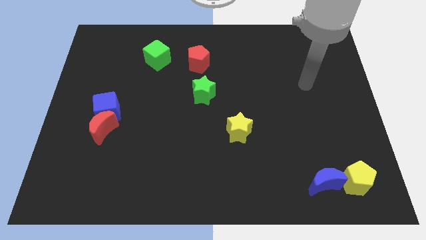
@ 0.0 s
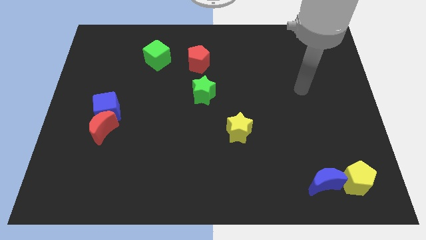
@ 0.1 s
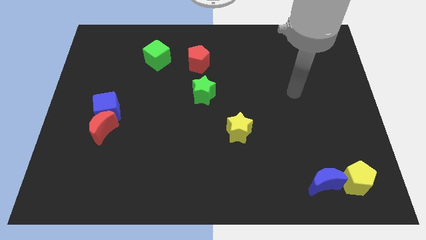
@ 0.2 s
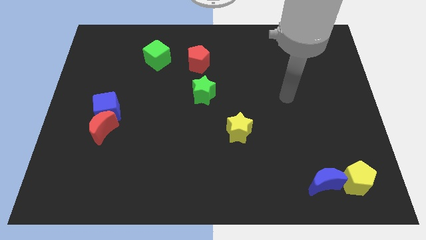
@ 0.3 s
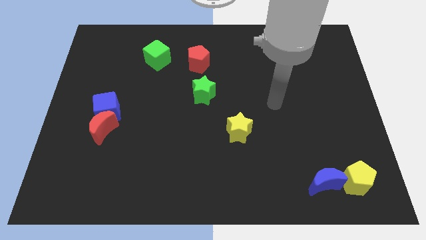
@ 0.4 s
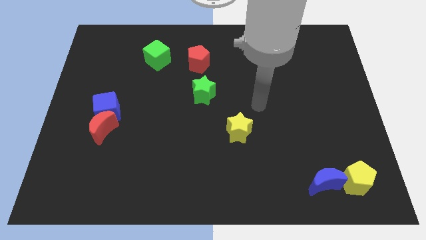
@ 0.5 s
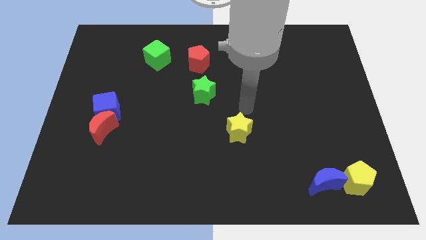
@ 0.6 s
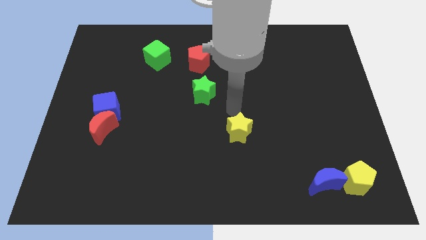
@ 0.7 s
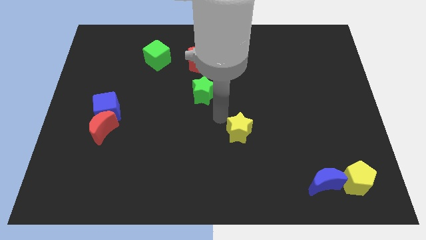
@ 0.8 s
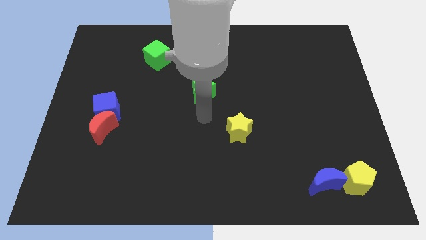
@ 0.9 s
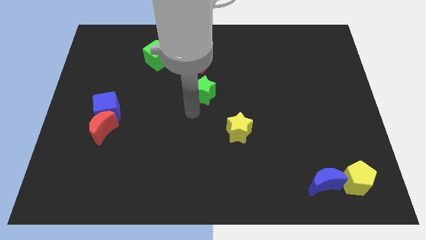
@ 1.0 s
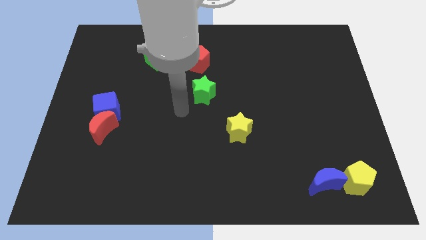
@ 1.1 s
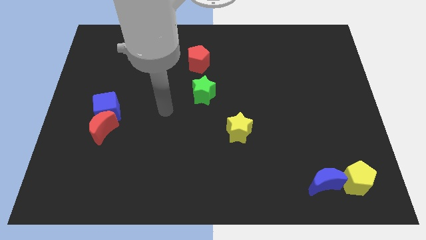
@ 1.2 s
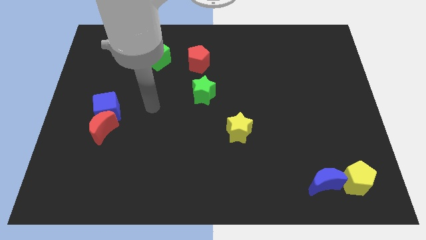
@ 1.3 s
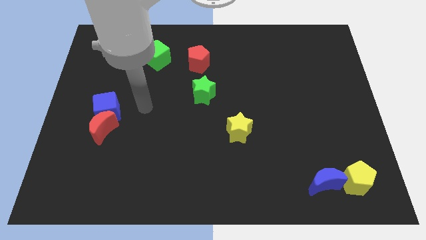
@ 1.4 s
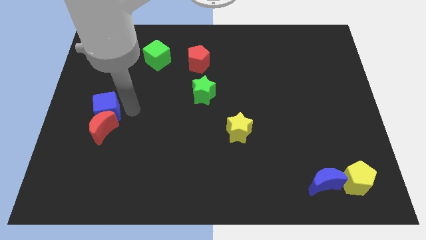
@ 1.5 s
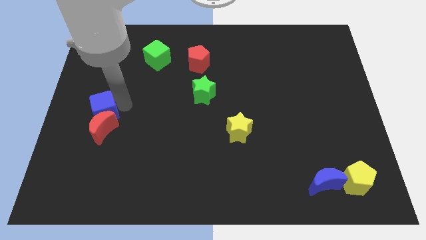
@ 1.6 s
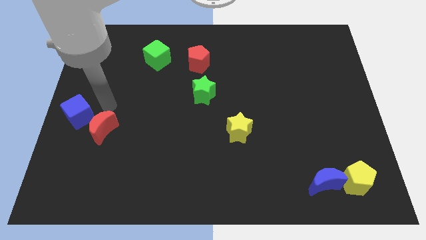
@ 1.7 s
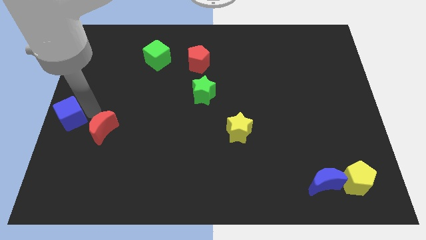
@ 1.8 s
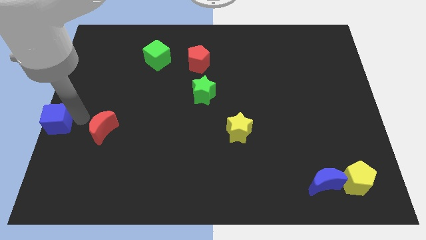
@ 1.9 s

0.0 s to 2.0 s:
move the red moon away from the blue cube

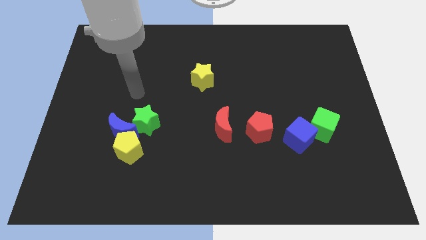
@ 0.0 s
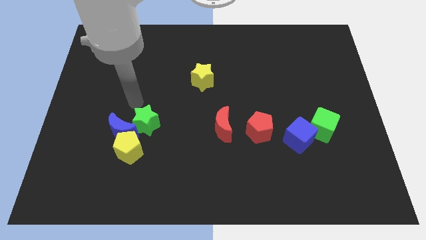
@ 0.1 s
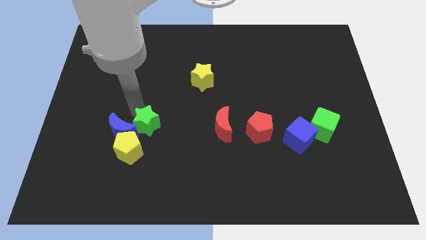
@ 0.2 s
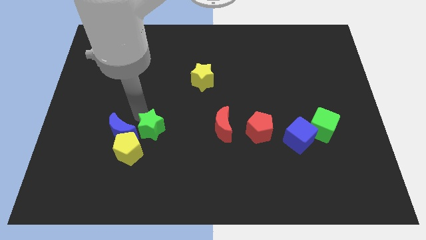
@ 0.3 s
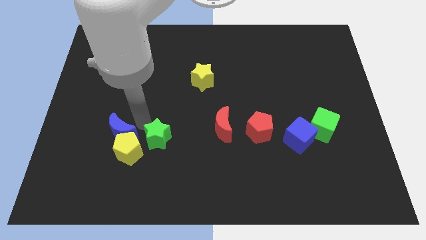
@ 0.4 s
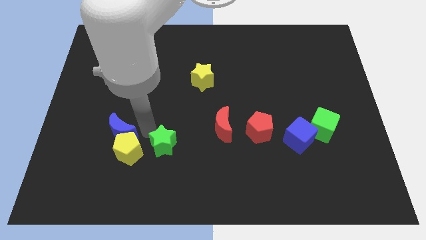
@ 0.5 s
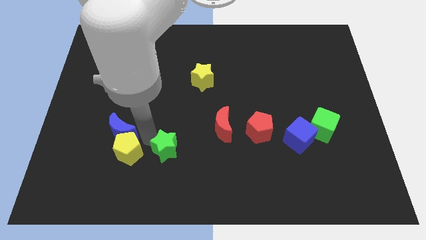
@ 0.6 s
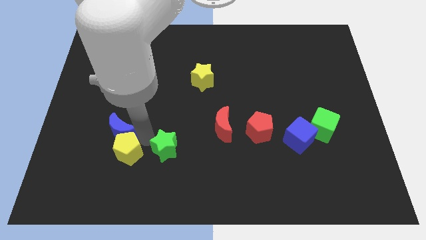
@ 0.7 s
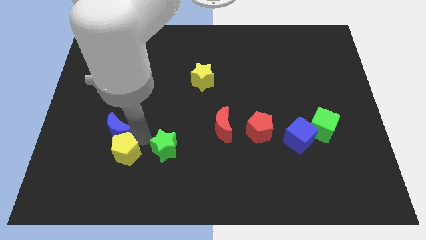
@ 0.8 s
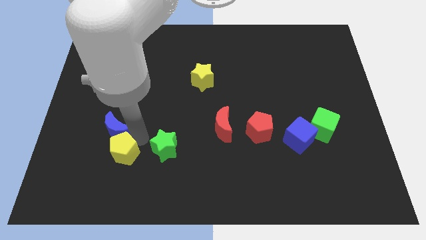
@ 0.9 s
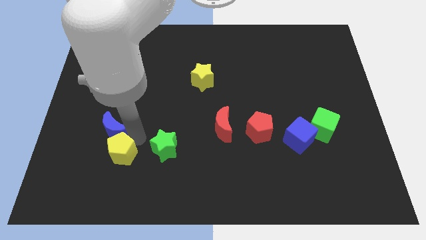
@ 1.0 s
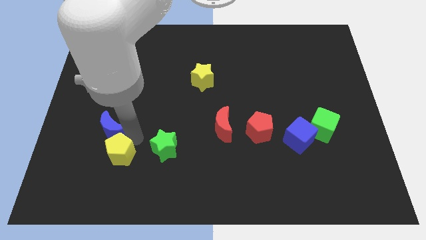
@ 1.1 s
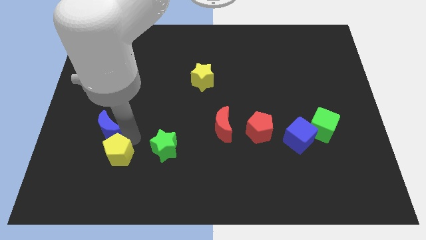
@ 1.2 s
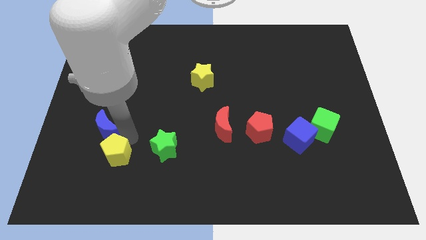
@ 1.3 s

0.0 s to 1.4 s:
pull the blue moon apart from the yellow pentagon and green star

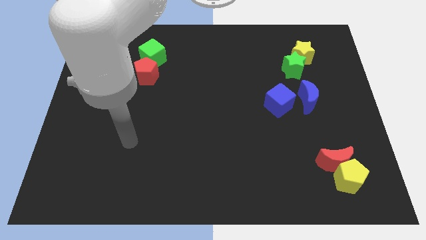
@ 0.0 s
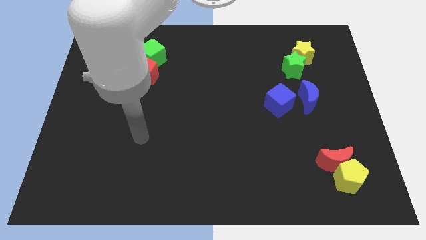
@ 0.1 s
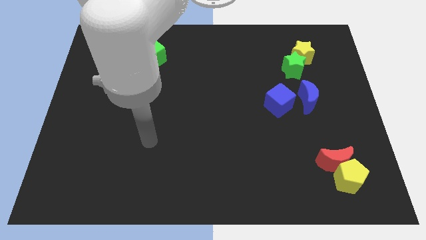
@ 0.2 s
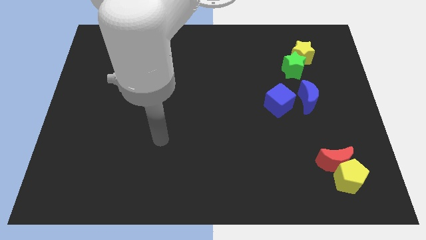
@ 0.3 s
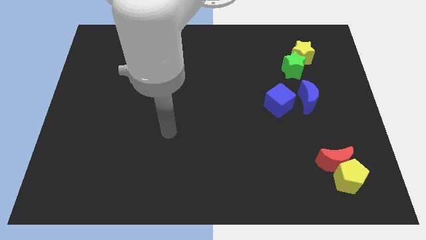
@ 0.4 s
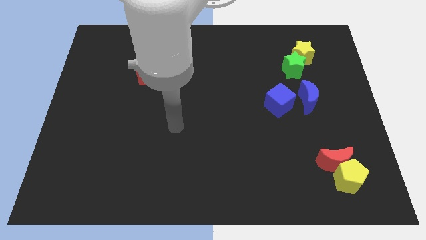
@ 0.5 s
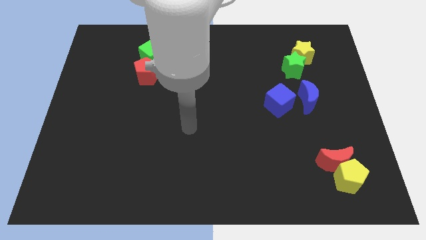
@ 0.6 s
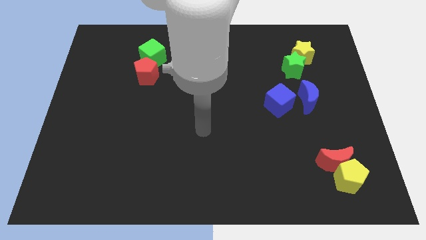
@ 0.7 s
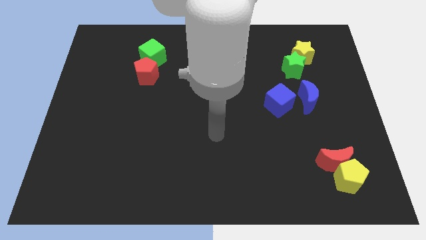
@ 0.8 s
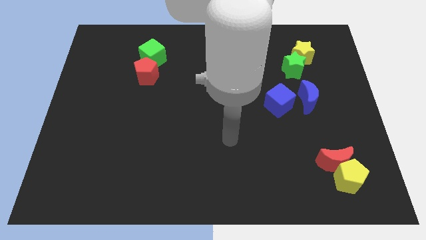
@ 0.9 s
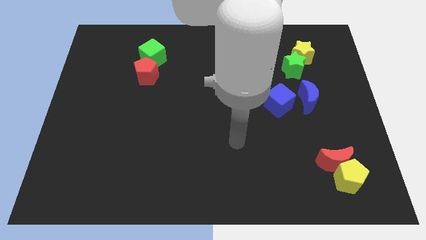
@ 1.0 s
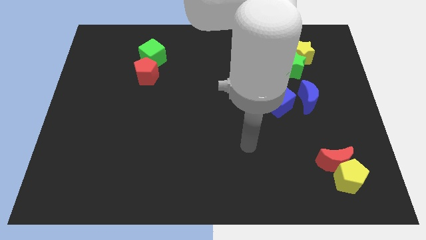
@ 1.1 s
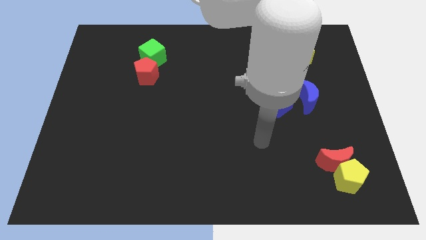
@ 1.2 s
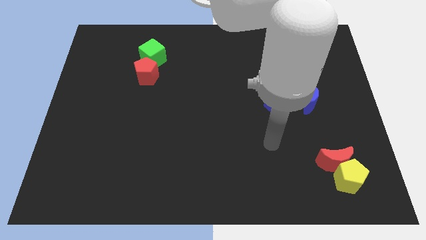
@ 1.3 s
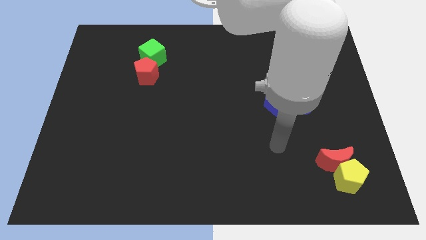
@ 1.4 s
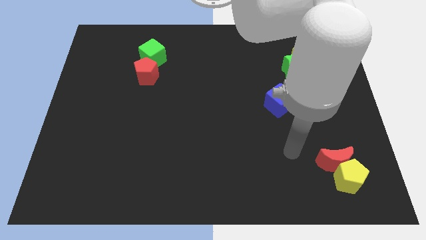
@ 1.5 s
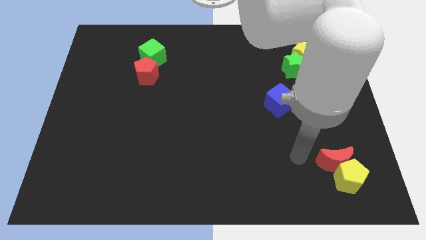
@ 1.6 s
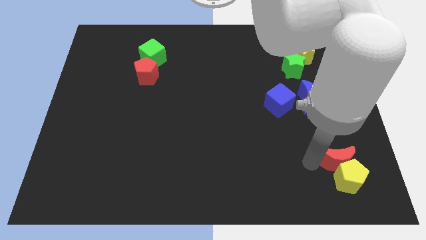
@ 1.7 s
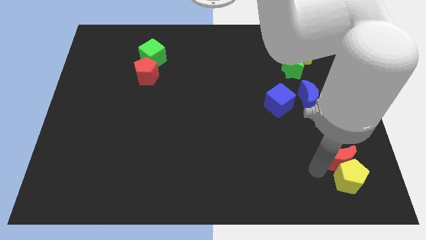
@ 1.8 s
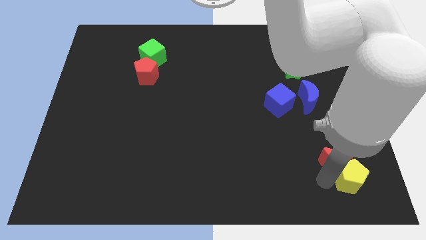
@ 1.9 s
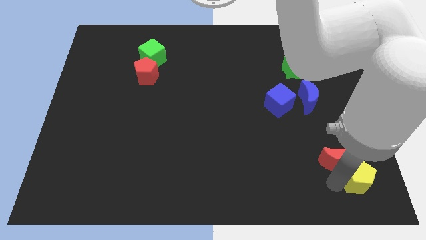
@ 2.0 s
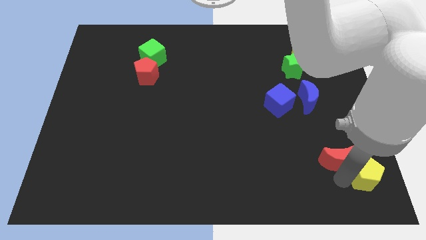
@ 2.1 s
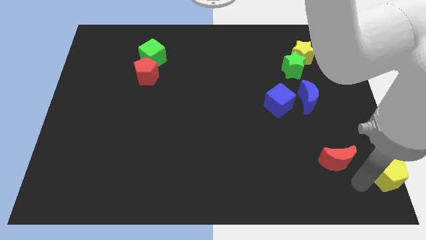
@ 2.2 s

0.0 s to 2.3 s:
separate the red moon from the yellow pentagon

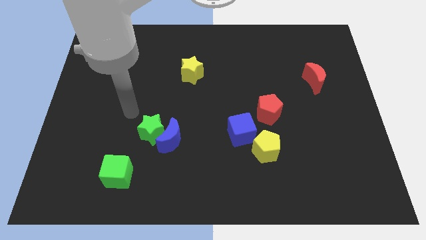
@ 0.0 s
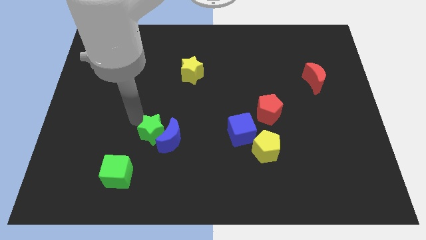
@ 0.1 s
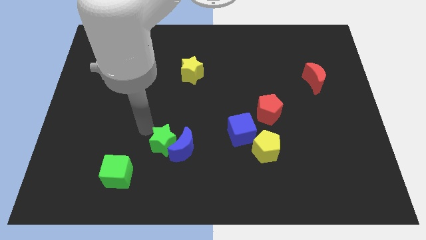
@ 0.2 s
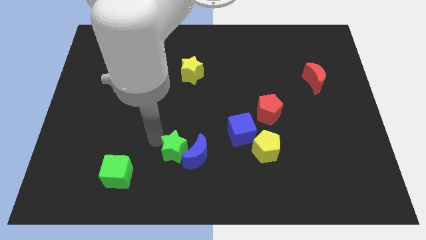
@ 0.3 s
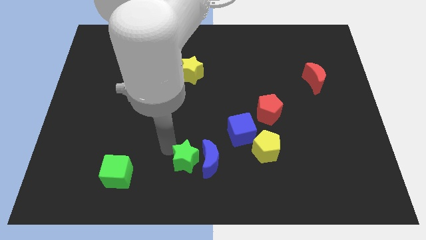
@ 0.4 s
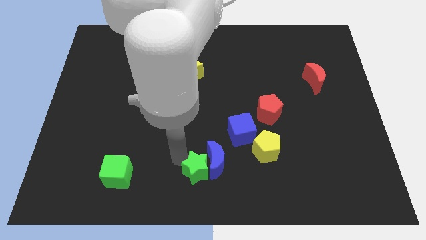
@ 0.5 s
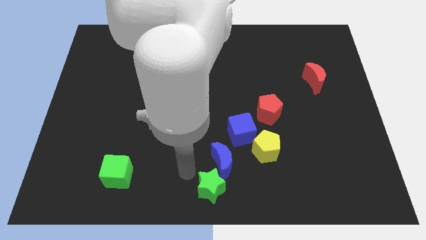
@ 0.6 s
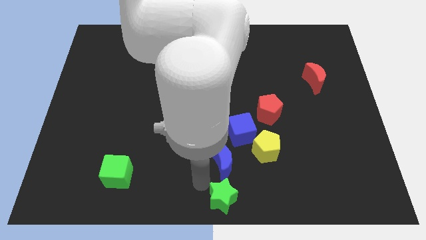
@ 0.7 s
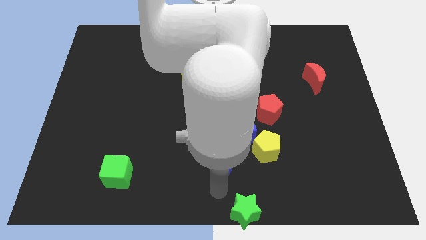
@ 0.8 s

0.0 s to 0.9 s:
separate the blue moon from the green star

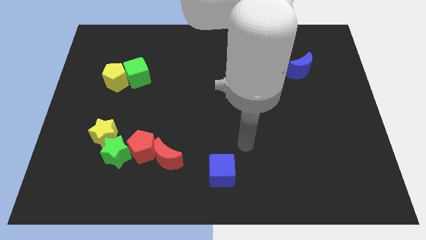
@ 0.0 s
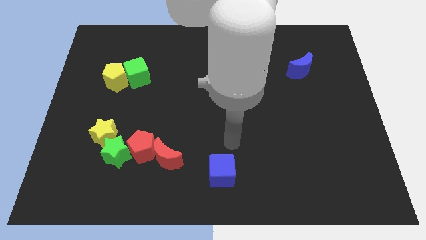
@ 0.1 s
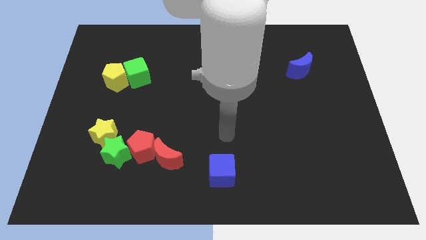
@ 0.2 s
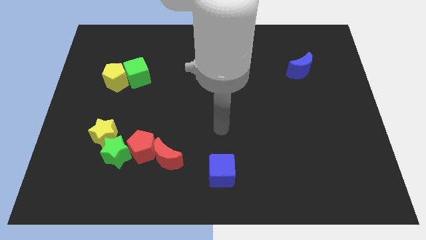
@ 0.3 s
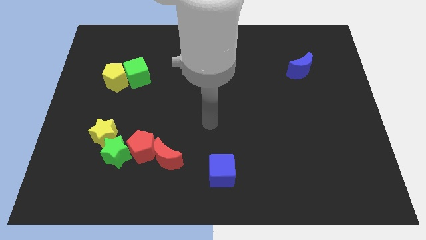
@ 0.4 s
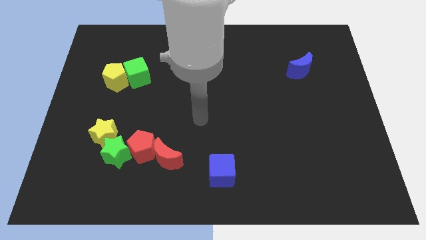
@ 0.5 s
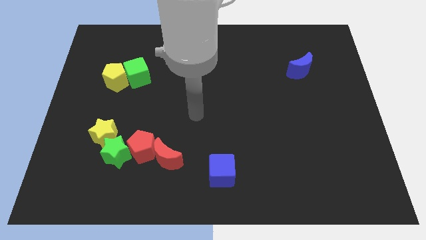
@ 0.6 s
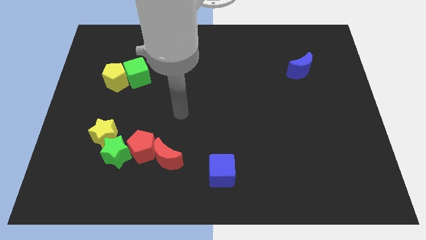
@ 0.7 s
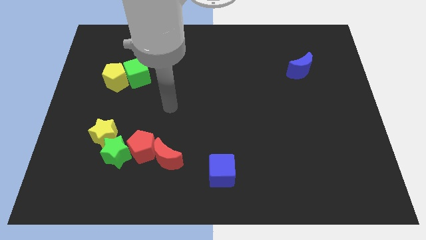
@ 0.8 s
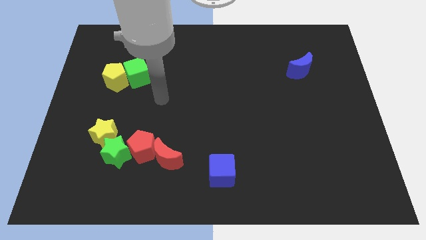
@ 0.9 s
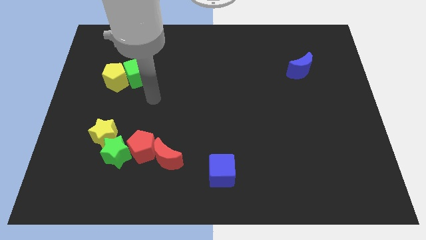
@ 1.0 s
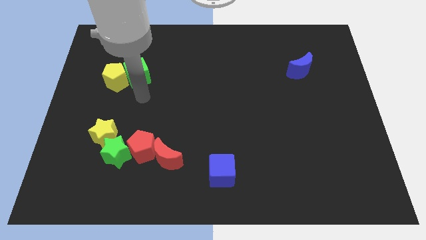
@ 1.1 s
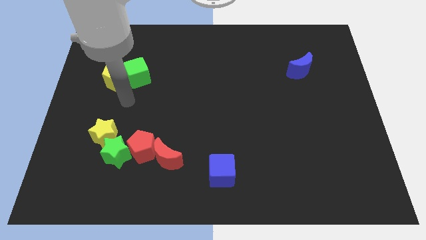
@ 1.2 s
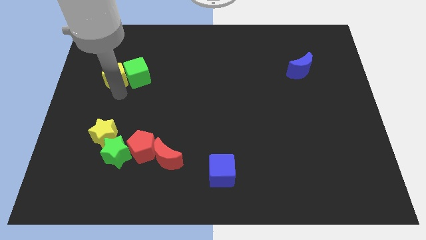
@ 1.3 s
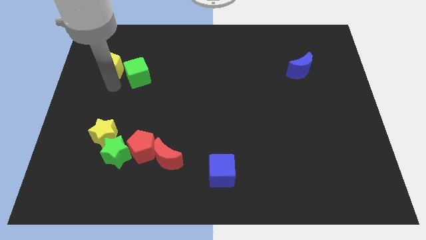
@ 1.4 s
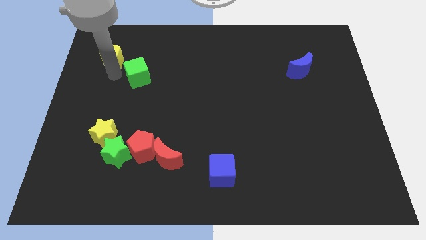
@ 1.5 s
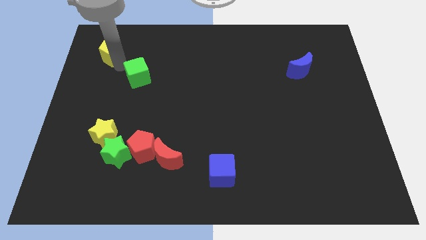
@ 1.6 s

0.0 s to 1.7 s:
move the green cube away from the yellow pentagon

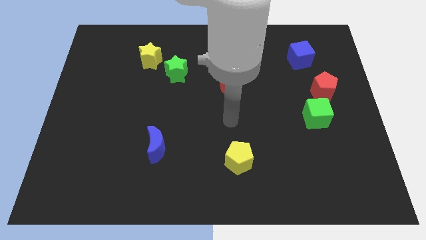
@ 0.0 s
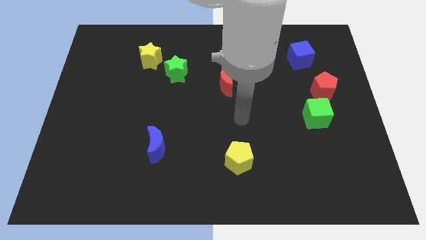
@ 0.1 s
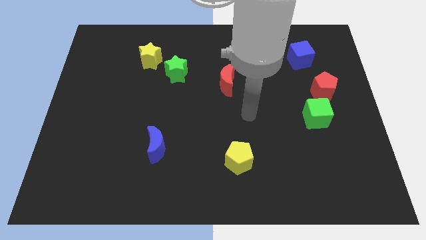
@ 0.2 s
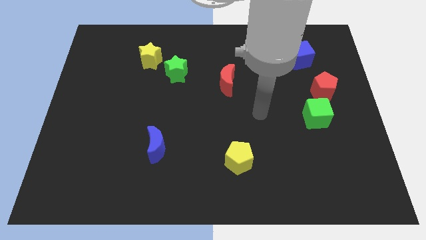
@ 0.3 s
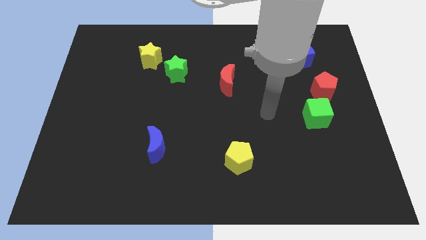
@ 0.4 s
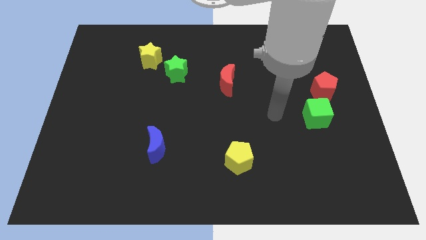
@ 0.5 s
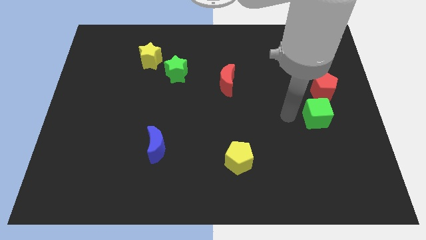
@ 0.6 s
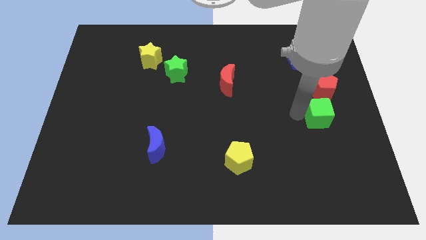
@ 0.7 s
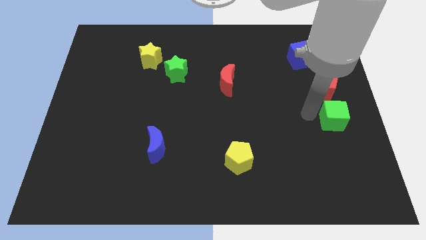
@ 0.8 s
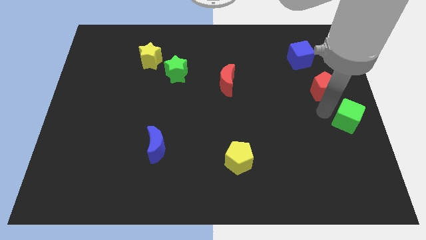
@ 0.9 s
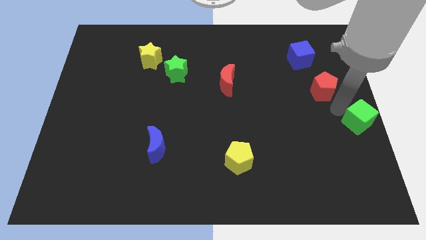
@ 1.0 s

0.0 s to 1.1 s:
move the red pentagon away from the green cube
